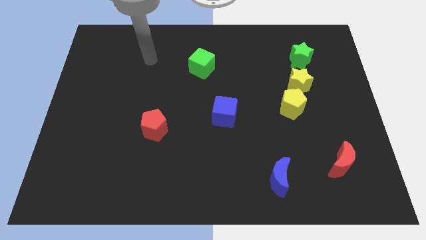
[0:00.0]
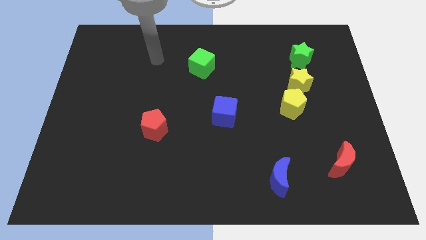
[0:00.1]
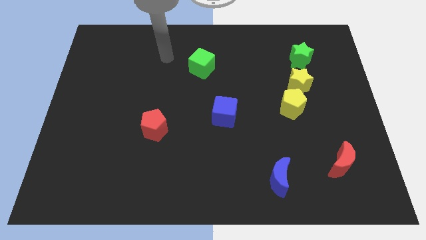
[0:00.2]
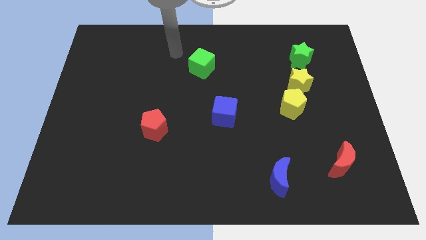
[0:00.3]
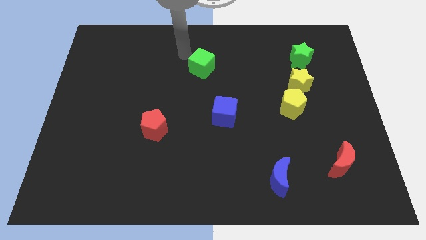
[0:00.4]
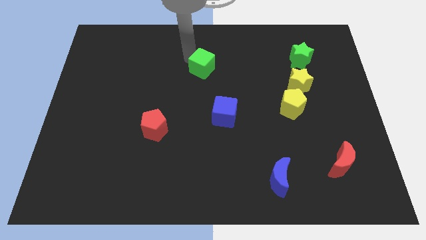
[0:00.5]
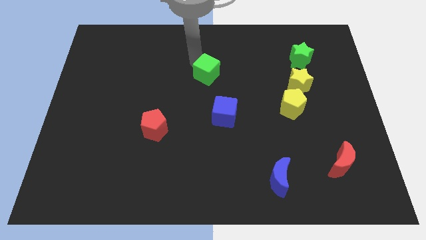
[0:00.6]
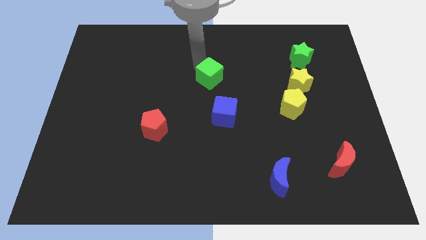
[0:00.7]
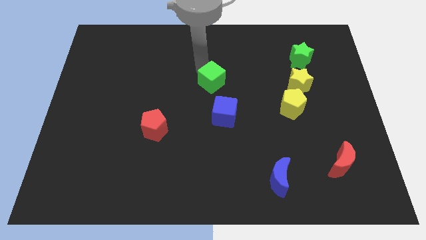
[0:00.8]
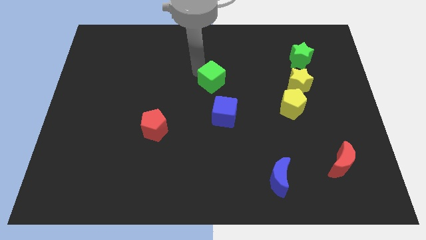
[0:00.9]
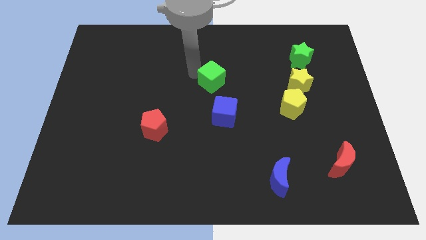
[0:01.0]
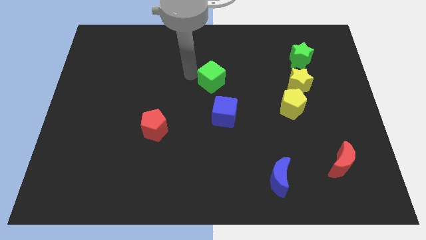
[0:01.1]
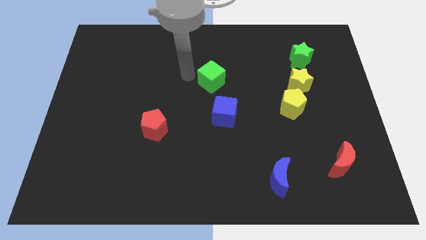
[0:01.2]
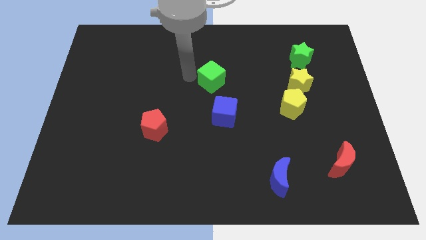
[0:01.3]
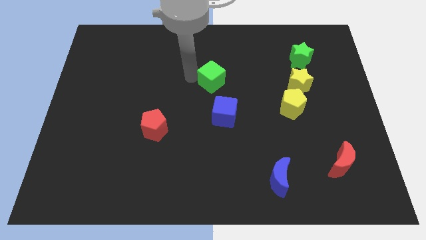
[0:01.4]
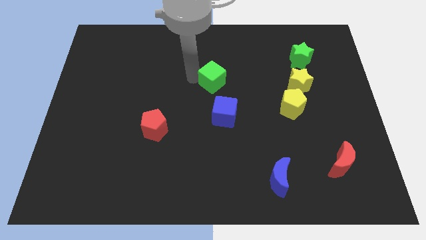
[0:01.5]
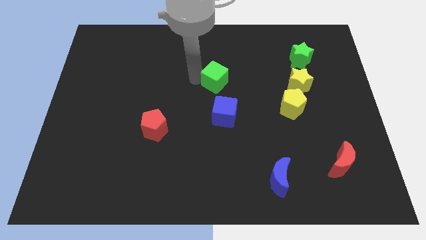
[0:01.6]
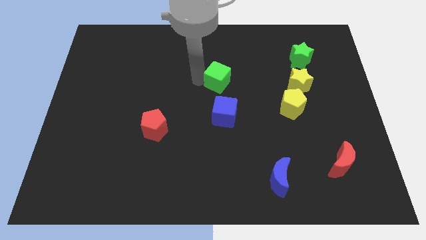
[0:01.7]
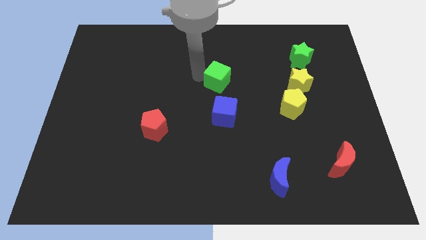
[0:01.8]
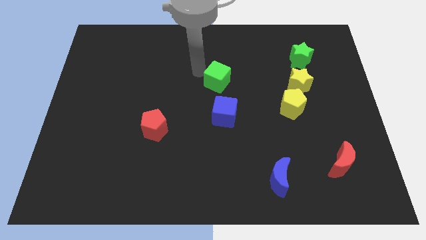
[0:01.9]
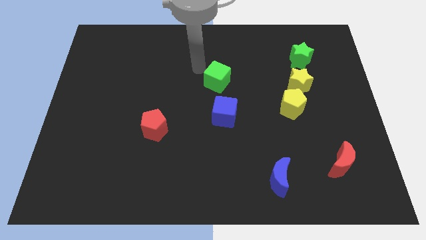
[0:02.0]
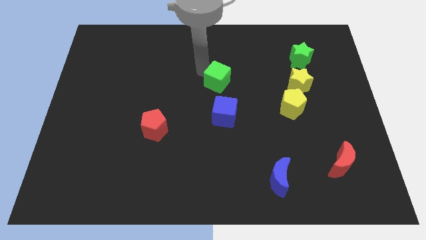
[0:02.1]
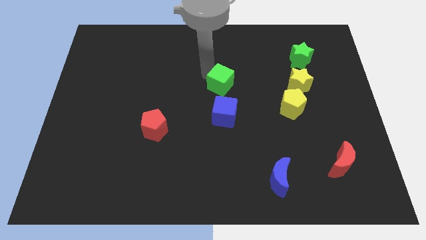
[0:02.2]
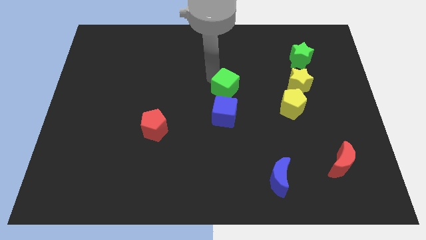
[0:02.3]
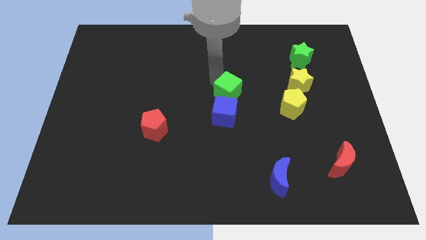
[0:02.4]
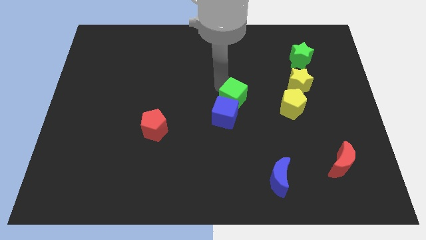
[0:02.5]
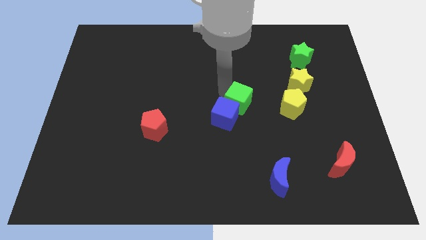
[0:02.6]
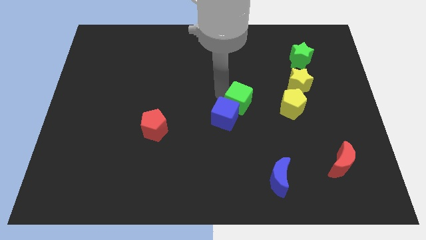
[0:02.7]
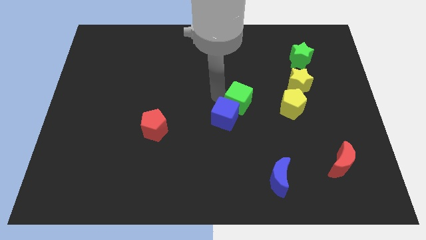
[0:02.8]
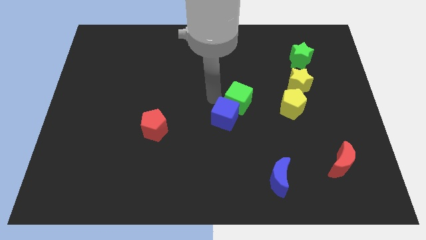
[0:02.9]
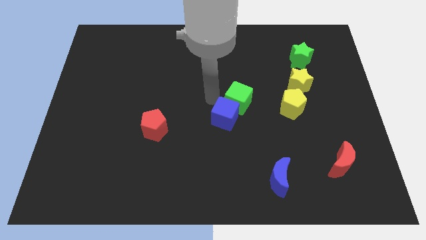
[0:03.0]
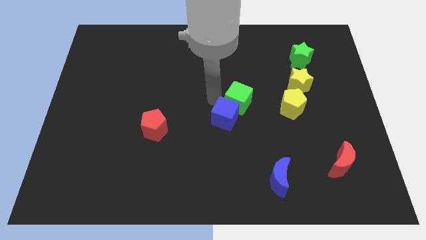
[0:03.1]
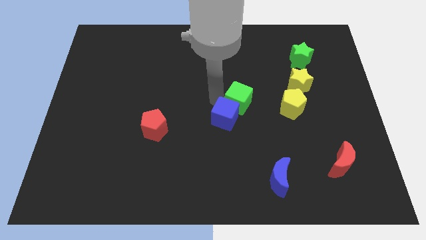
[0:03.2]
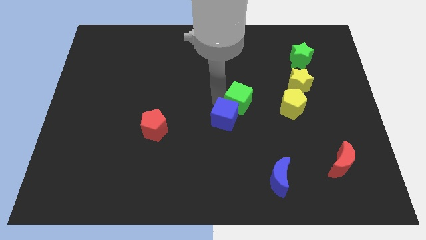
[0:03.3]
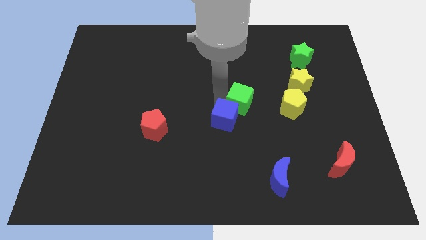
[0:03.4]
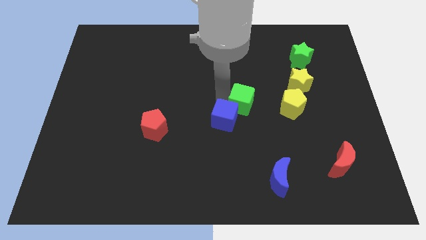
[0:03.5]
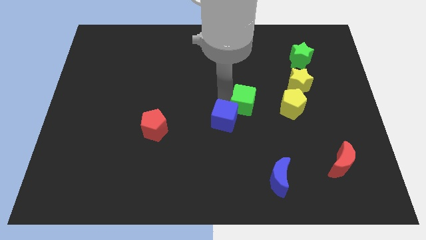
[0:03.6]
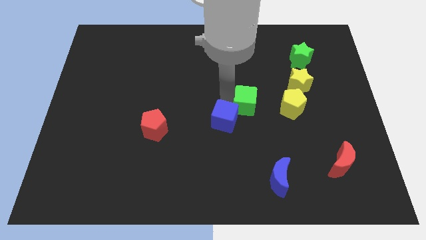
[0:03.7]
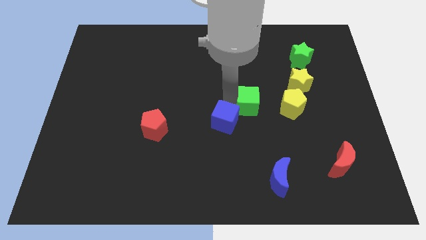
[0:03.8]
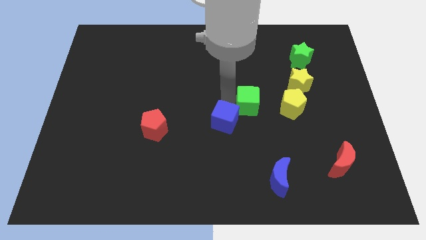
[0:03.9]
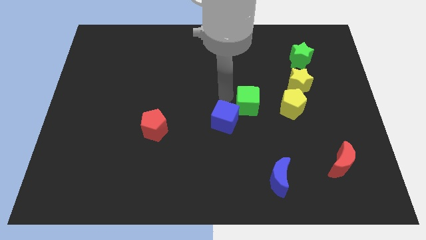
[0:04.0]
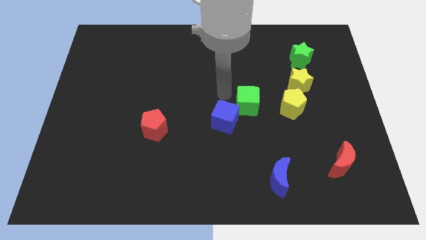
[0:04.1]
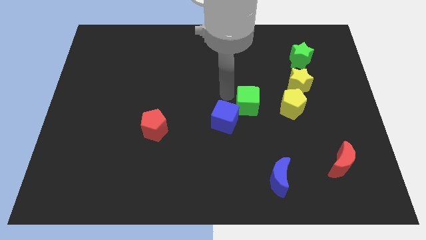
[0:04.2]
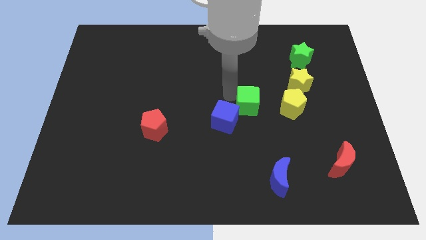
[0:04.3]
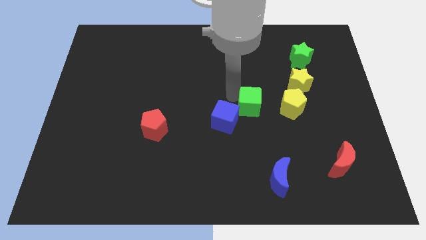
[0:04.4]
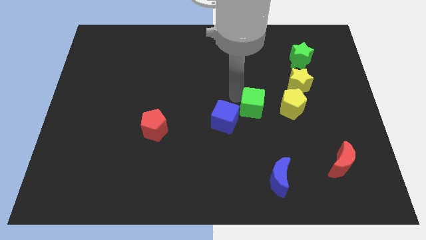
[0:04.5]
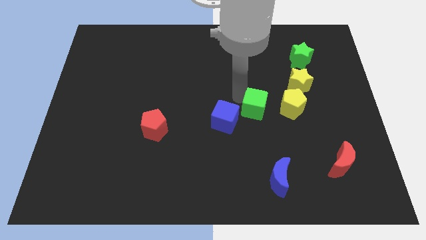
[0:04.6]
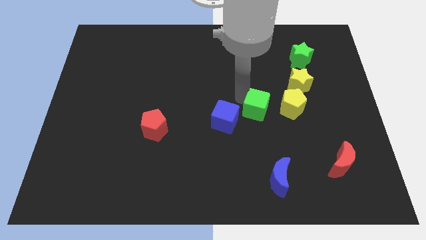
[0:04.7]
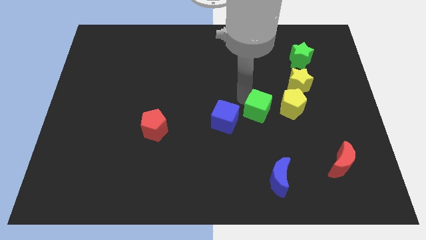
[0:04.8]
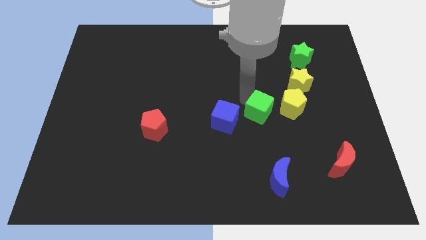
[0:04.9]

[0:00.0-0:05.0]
push the green cube downwards and then to the right

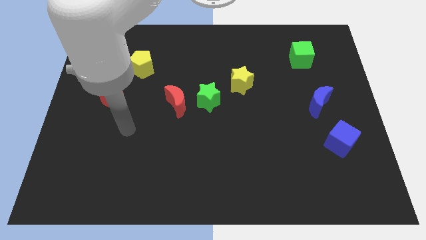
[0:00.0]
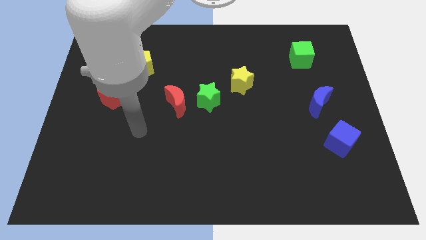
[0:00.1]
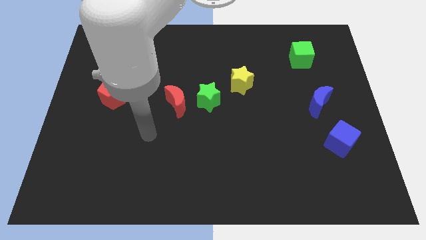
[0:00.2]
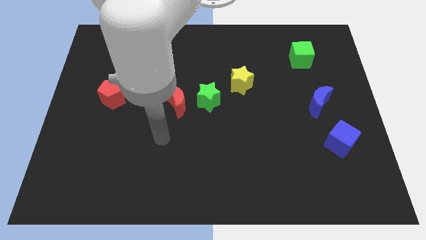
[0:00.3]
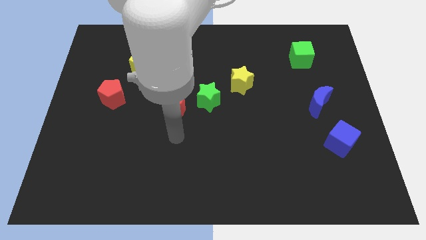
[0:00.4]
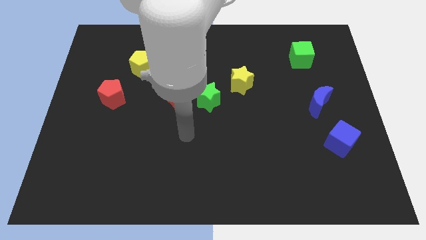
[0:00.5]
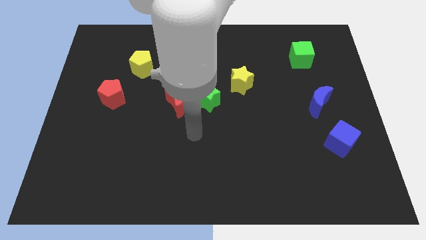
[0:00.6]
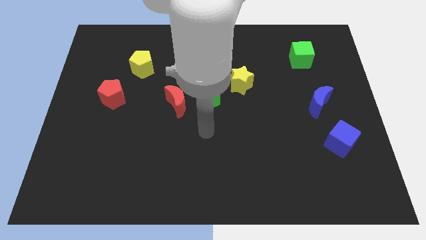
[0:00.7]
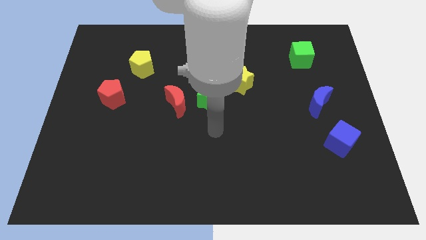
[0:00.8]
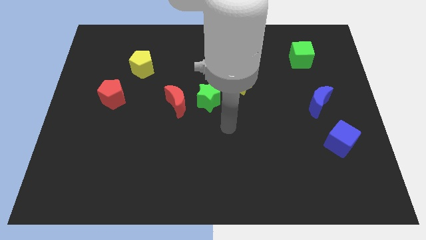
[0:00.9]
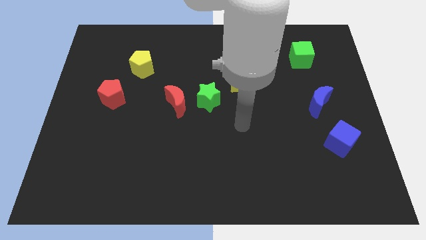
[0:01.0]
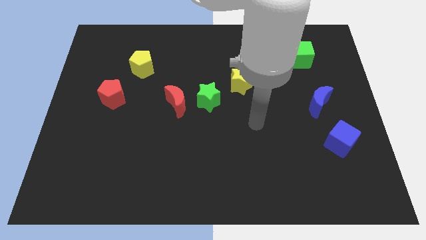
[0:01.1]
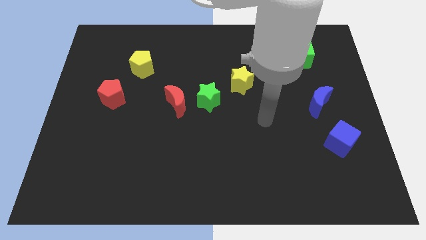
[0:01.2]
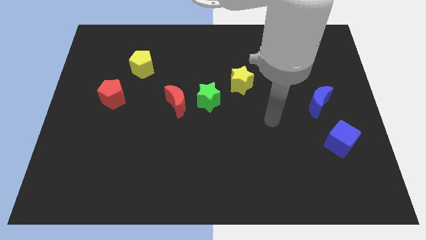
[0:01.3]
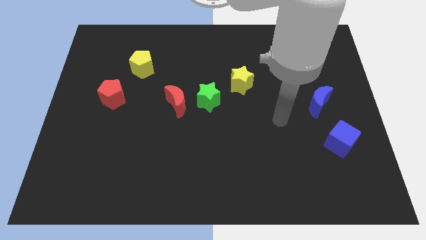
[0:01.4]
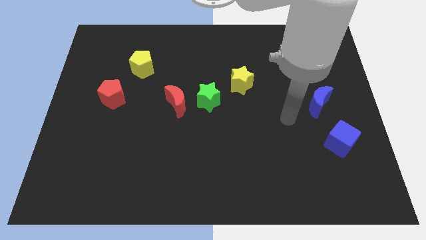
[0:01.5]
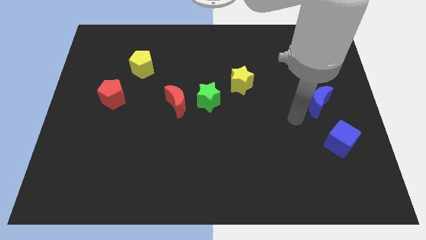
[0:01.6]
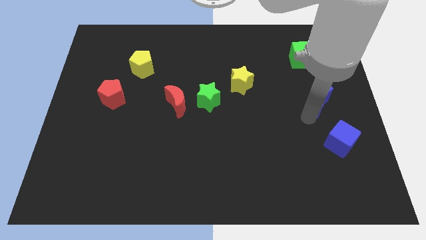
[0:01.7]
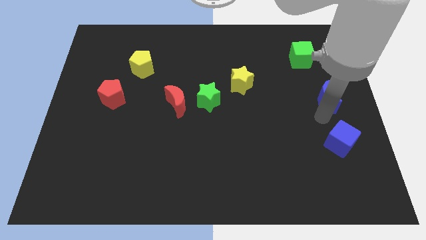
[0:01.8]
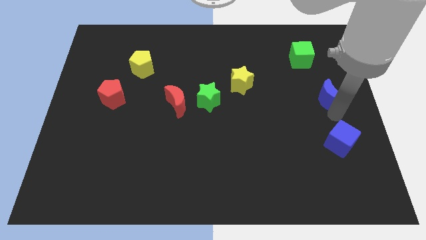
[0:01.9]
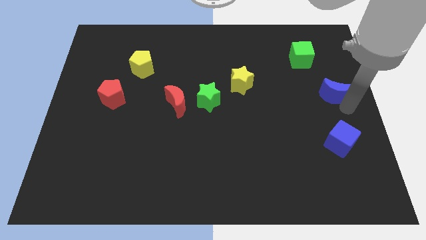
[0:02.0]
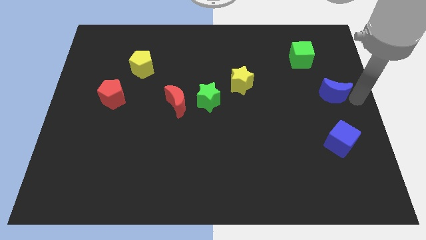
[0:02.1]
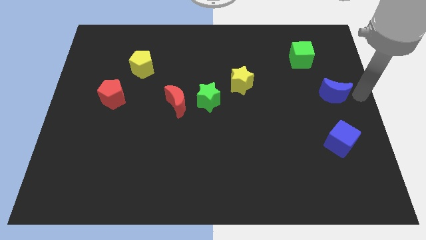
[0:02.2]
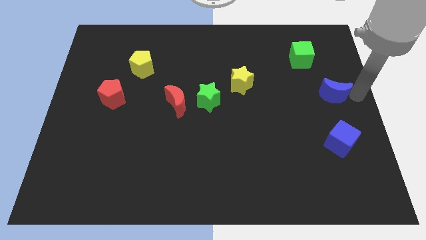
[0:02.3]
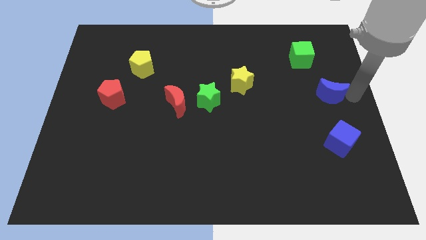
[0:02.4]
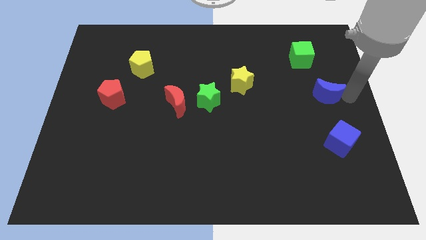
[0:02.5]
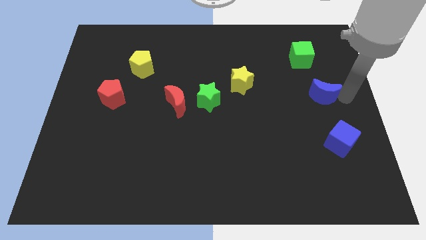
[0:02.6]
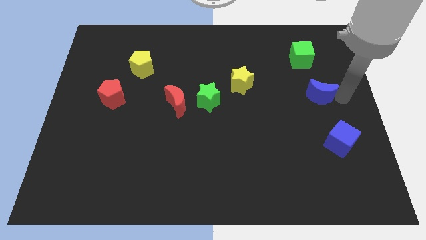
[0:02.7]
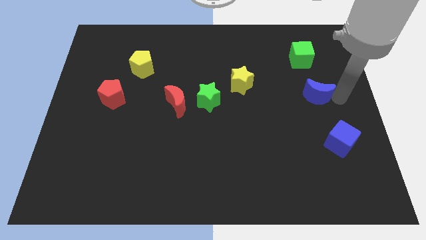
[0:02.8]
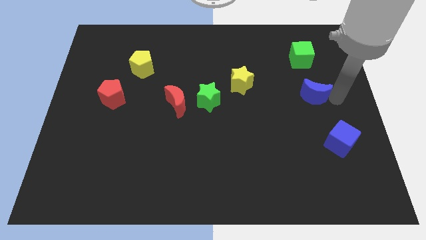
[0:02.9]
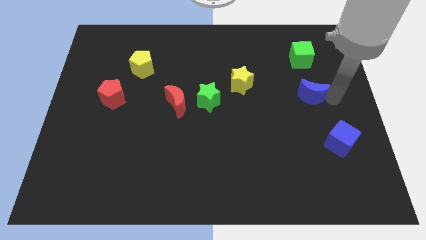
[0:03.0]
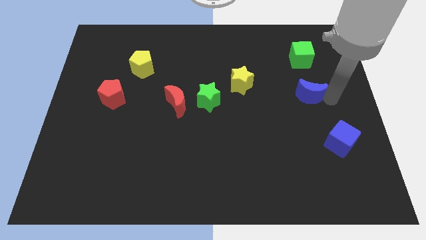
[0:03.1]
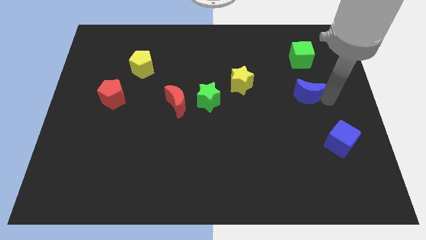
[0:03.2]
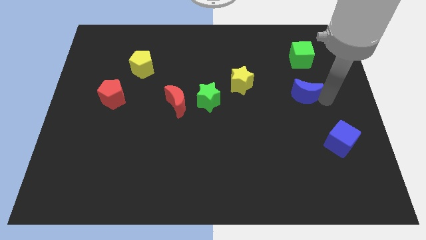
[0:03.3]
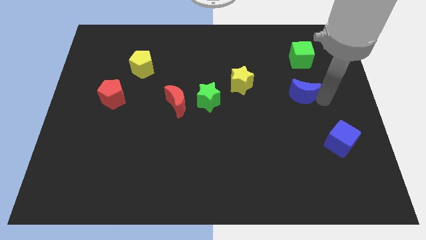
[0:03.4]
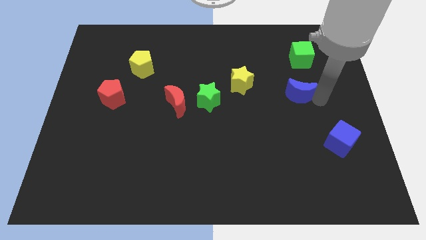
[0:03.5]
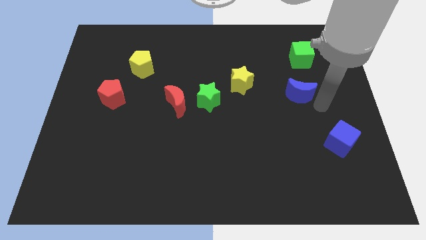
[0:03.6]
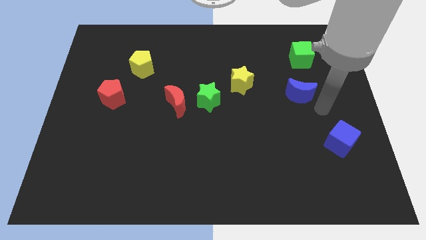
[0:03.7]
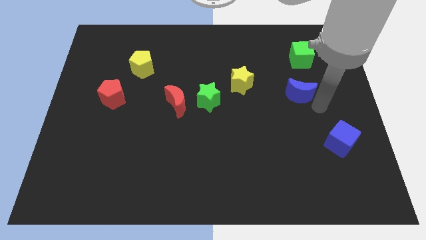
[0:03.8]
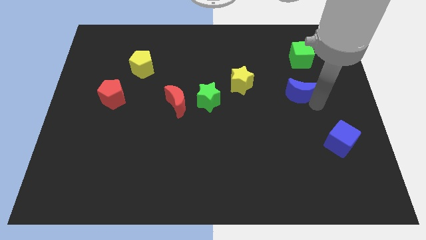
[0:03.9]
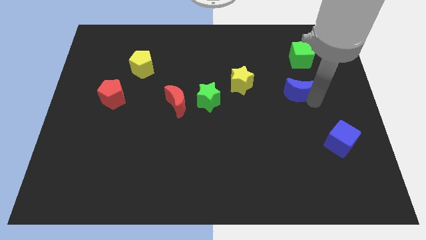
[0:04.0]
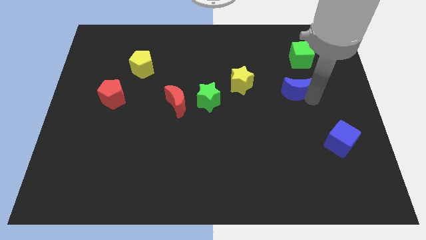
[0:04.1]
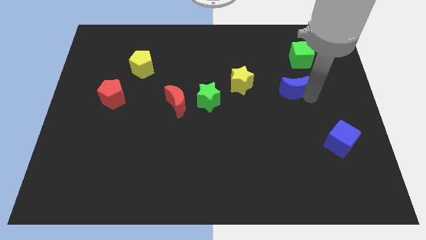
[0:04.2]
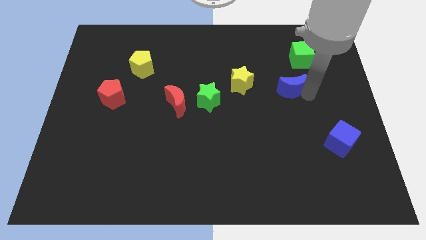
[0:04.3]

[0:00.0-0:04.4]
slightly push the blue moon up and to the left diagonally
